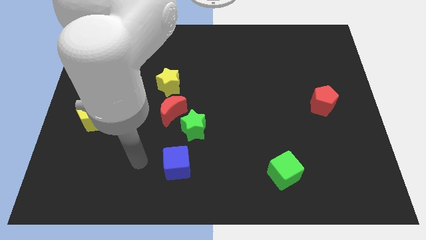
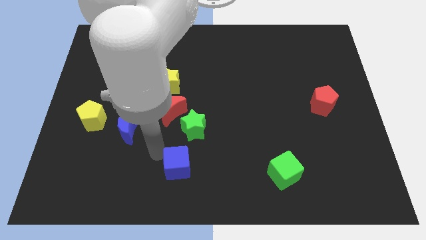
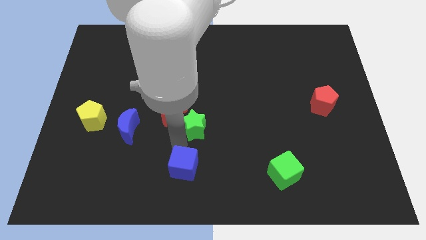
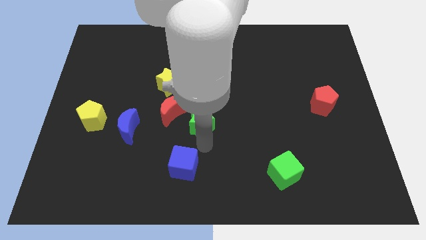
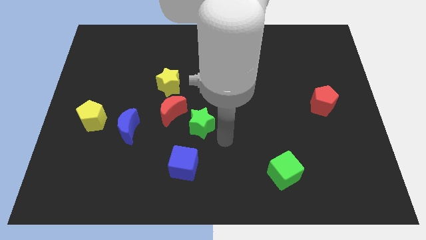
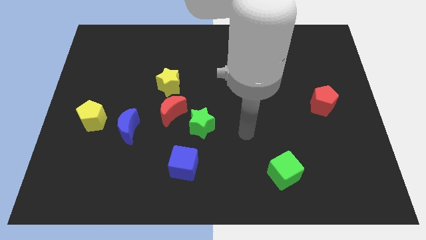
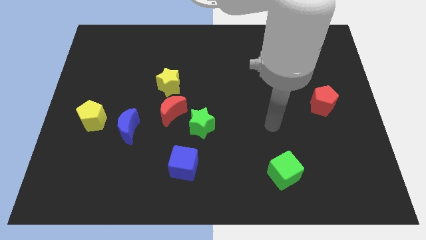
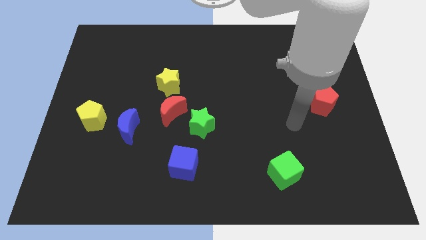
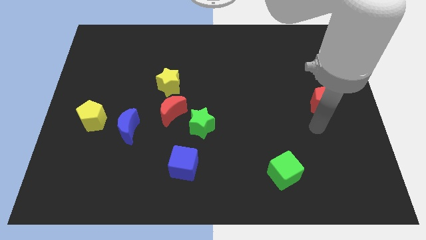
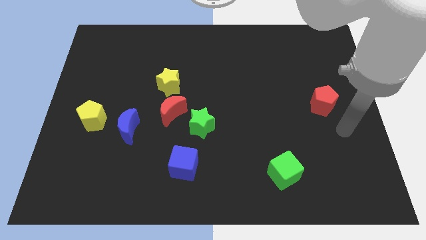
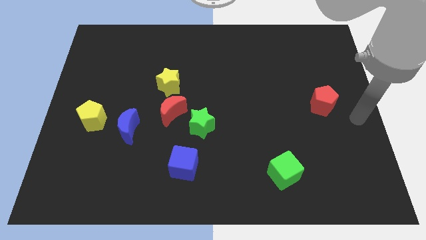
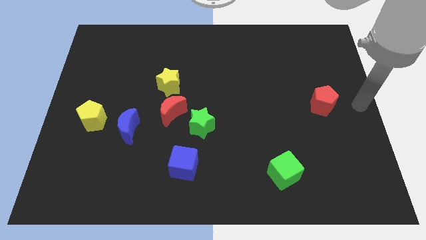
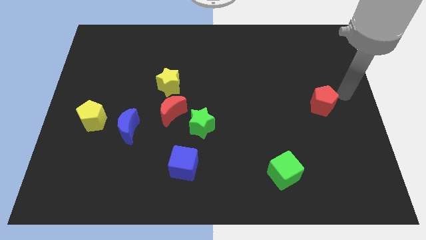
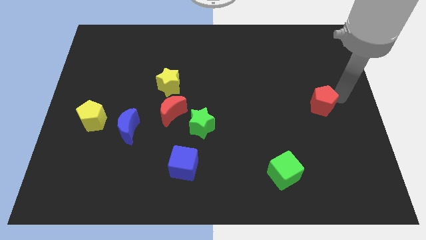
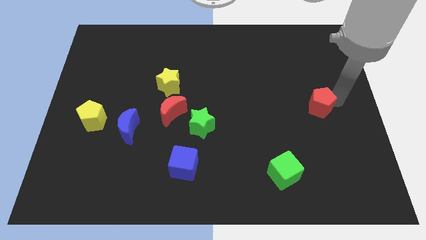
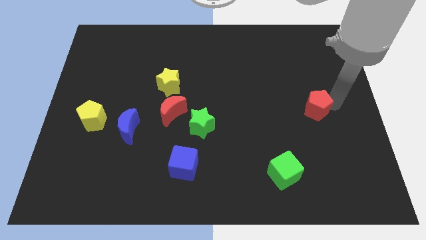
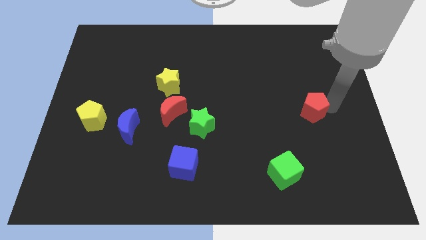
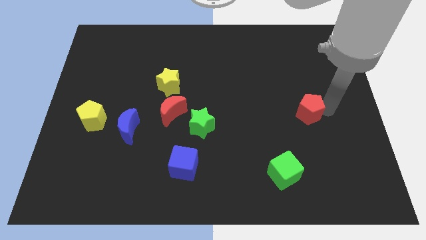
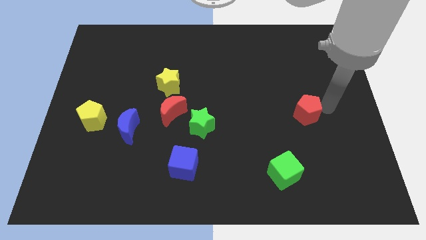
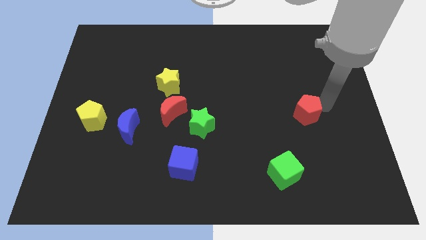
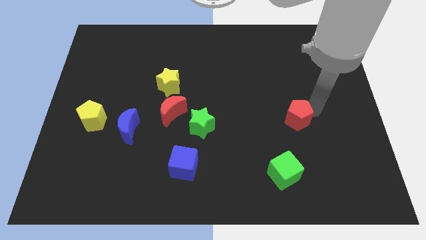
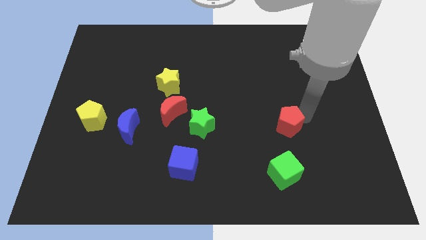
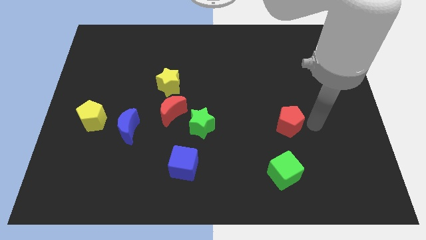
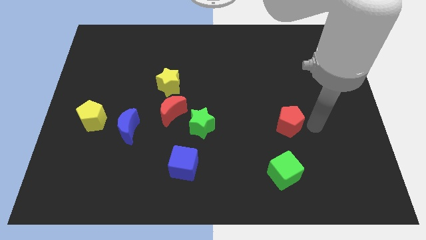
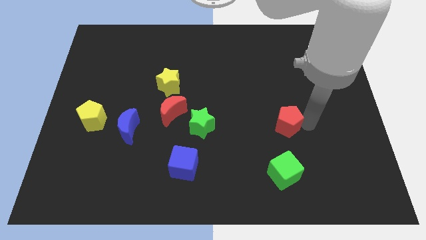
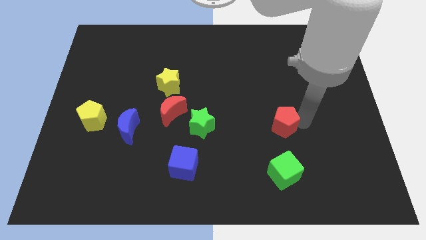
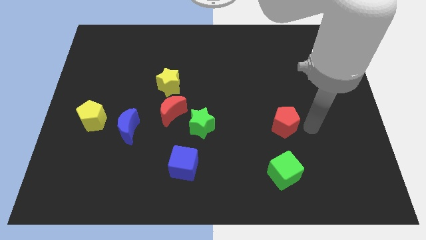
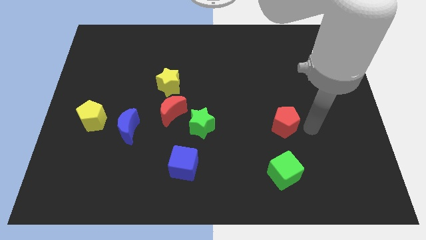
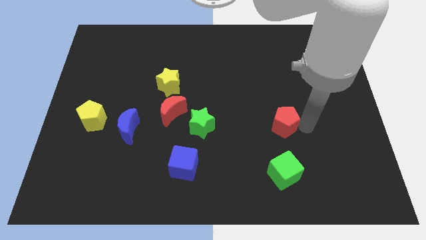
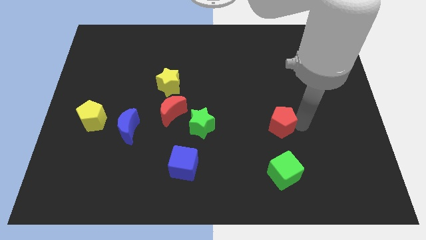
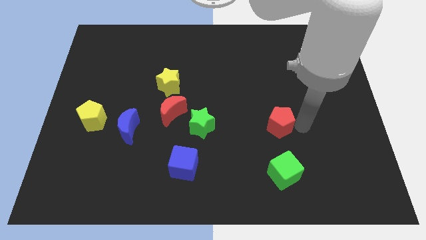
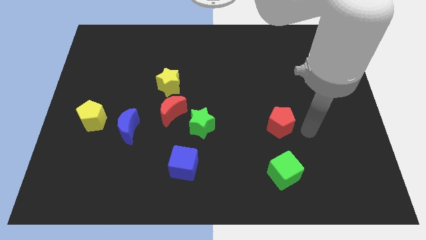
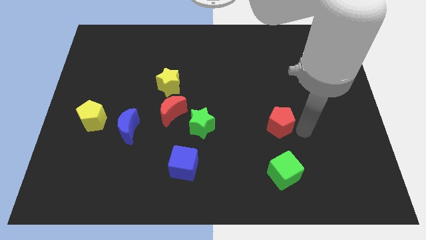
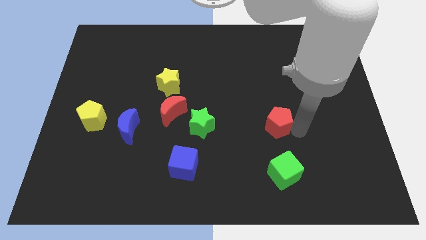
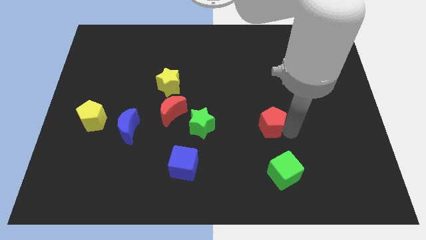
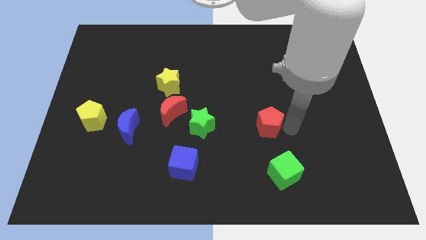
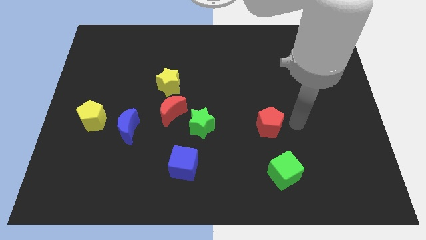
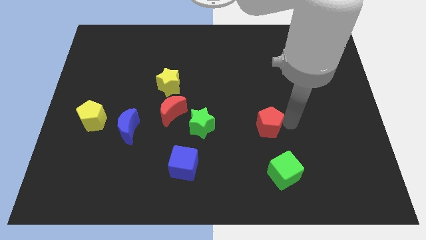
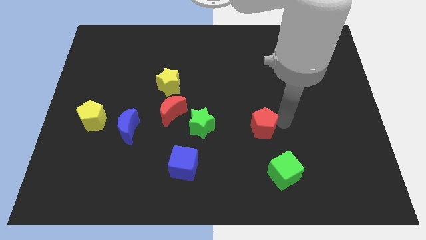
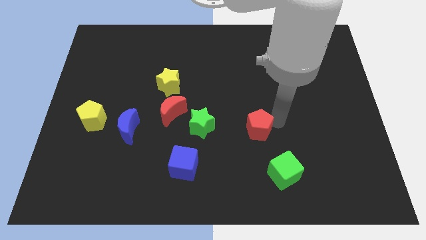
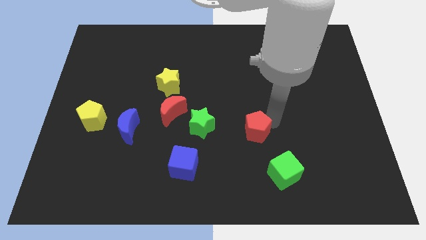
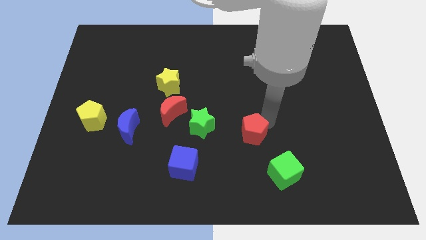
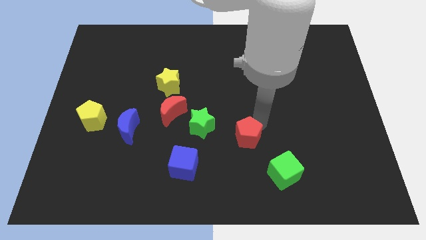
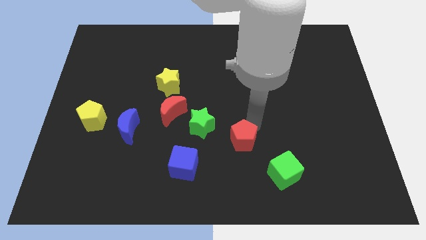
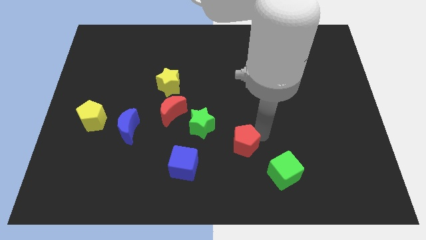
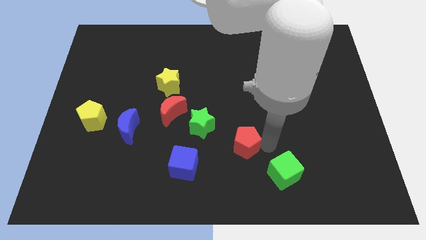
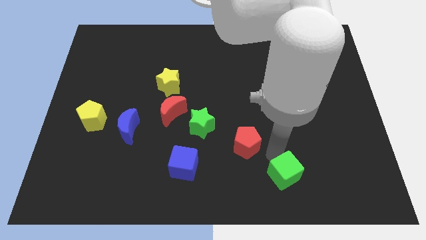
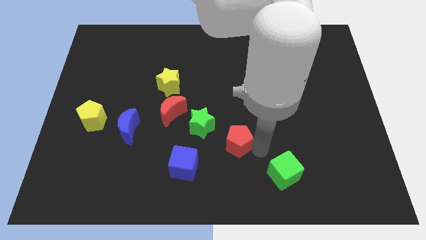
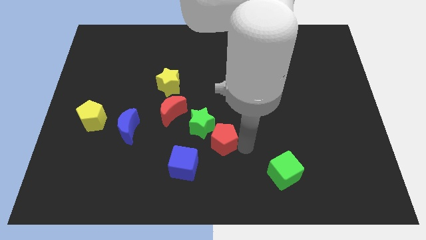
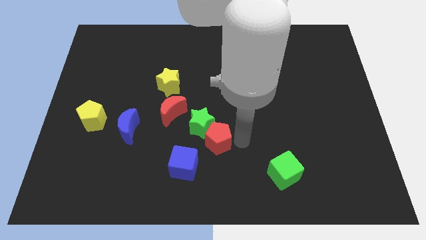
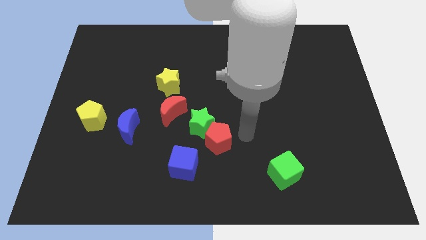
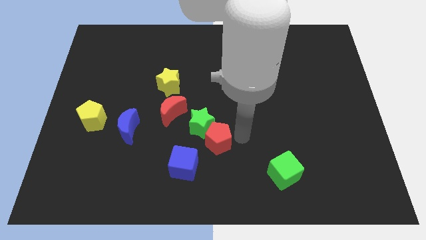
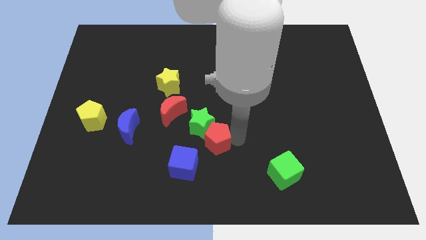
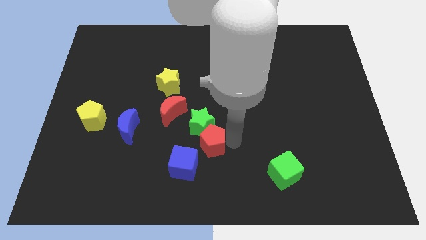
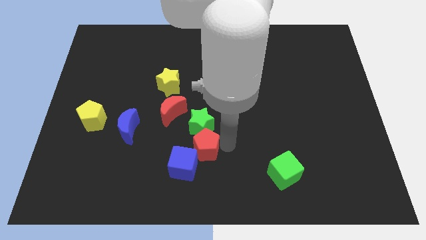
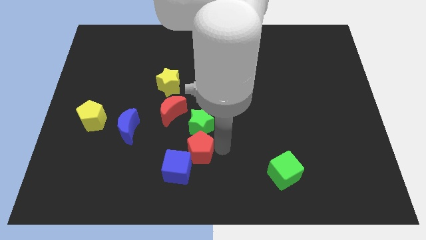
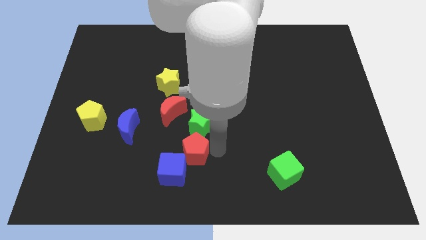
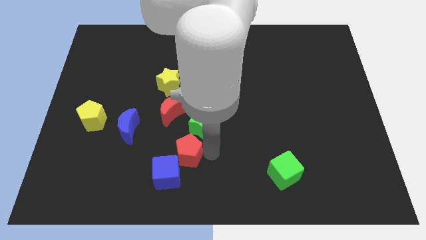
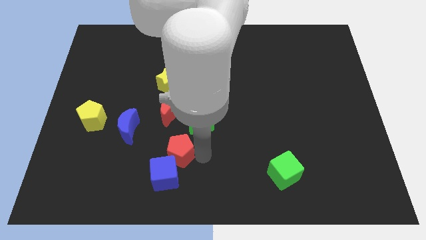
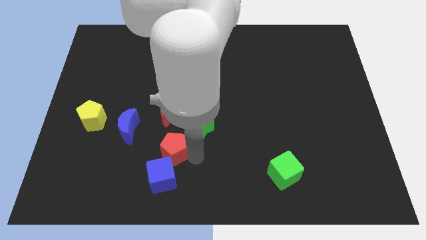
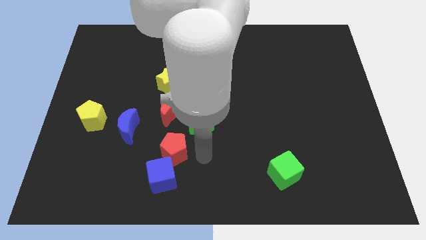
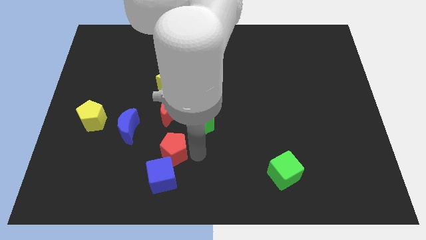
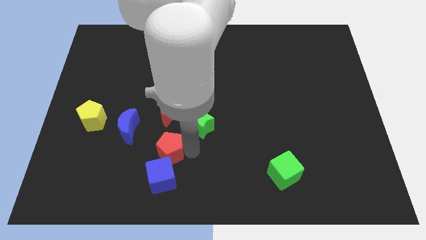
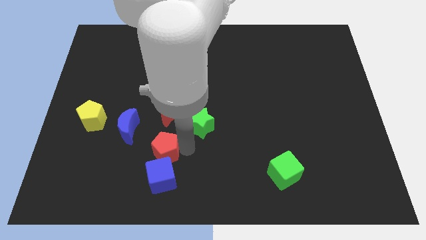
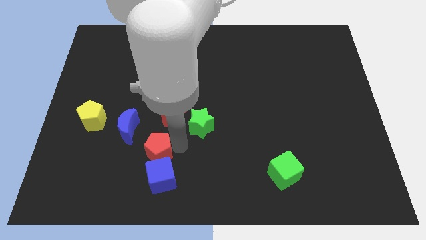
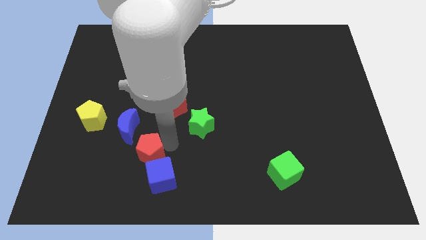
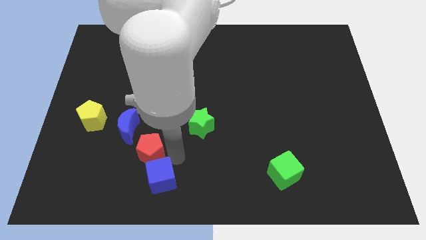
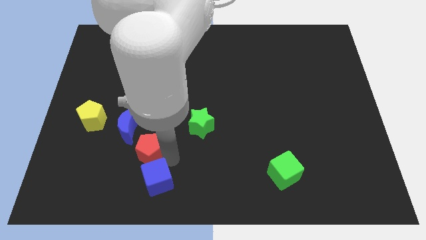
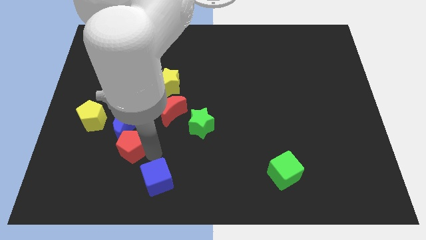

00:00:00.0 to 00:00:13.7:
move the red pentagon to the bottom right side of the yellow pentagon

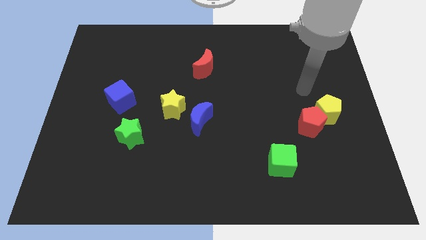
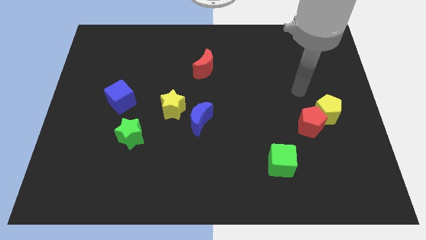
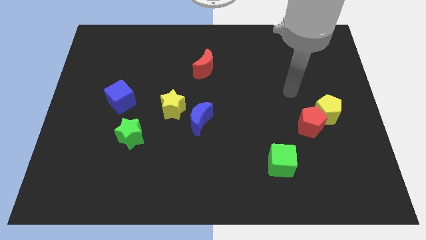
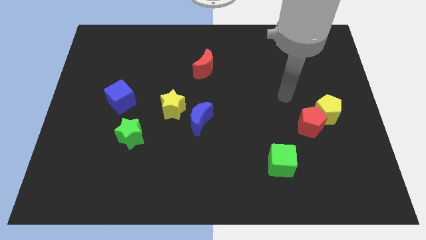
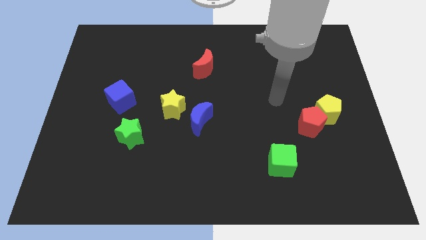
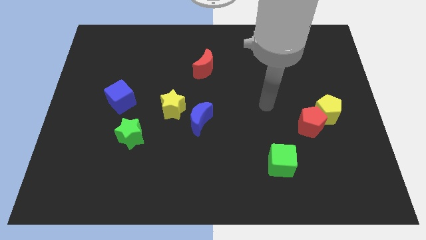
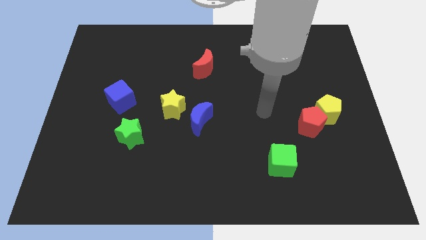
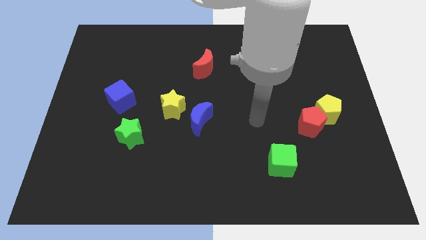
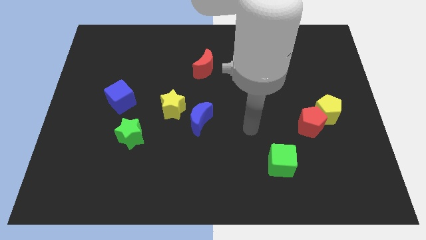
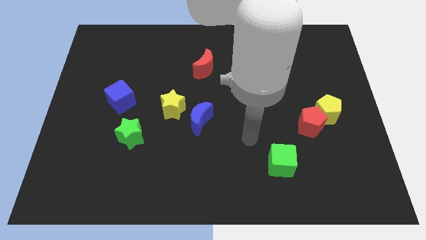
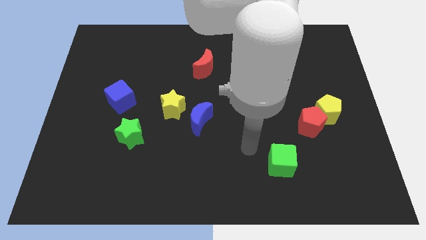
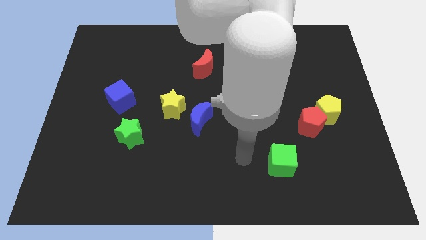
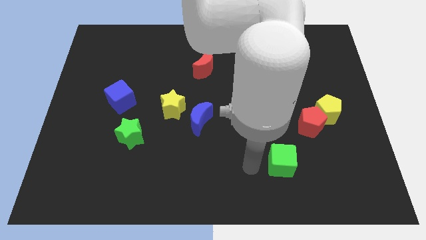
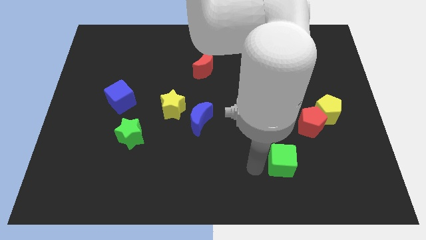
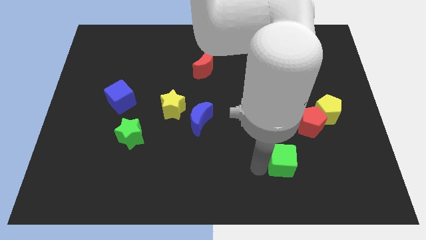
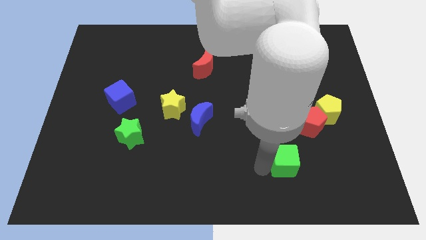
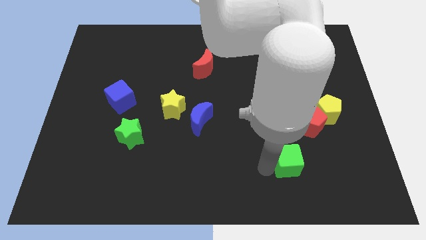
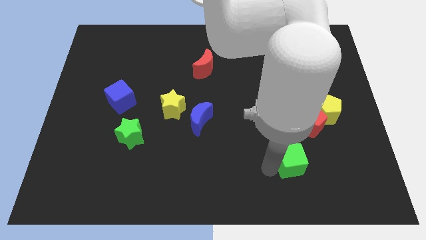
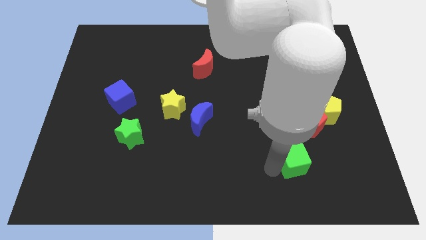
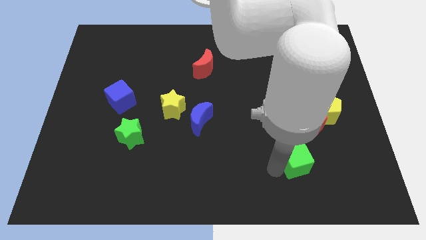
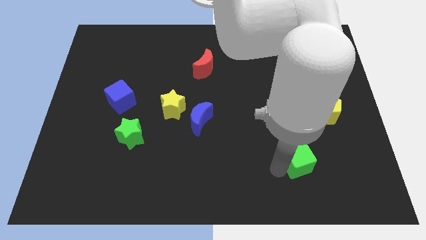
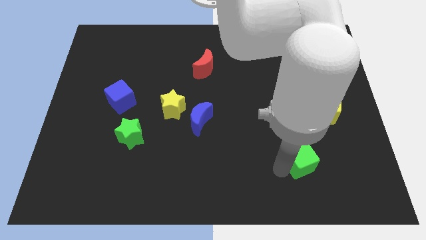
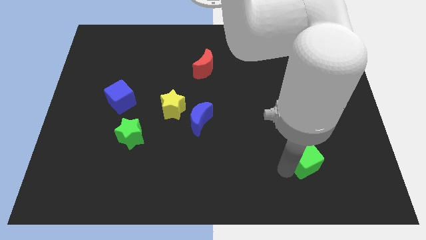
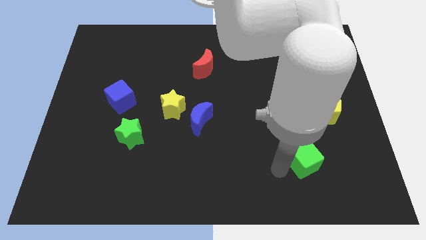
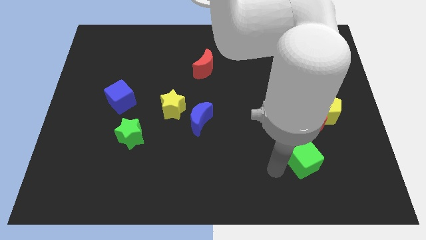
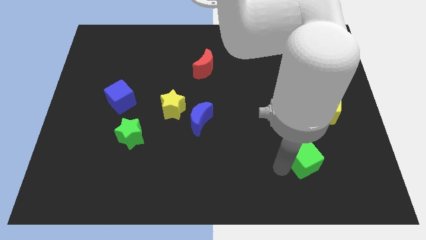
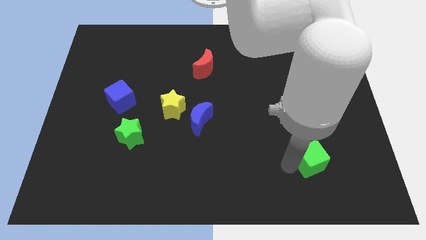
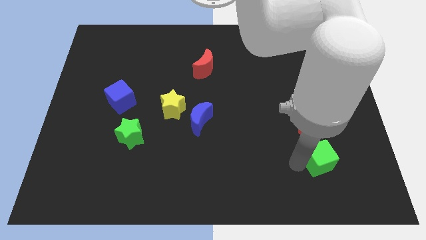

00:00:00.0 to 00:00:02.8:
slide the green cube to the bottom side of the yellow pentagon
